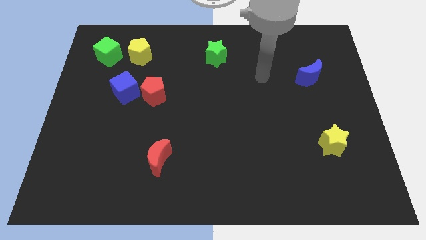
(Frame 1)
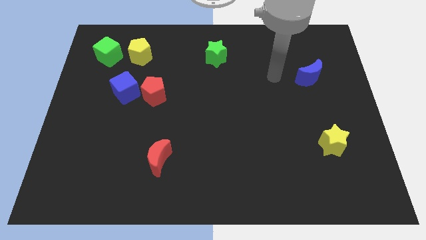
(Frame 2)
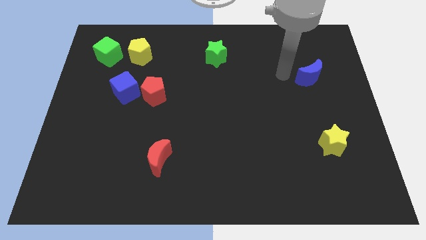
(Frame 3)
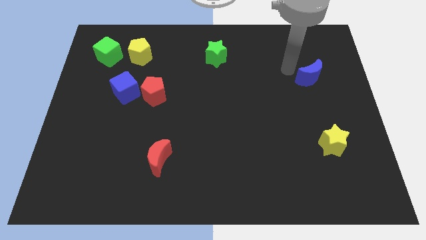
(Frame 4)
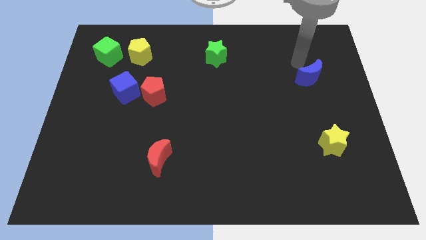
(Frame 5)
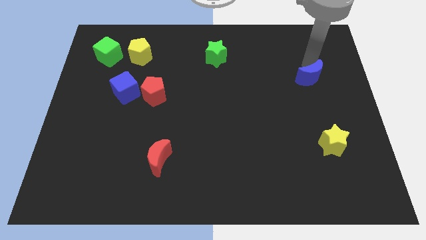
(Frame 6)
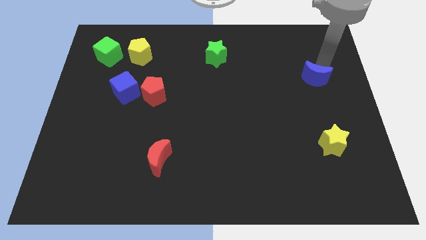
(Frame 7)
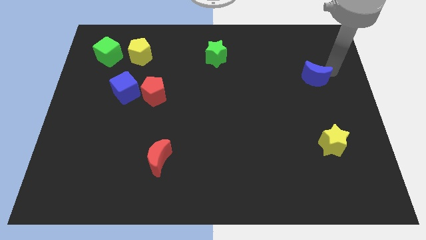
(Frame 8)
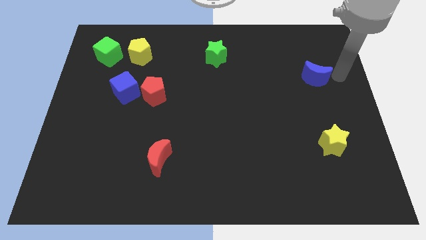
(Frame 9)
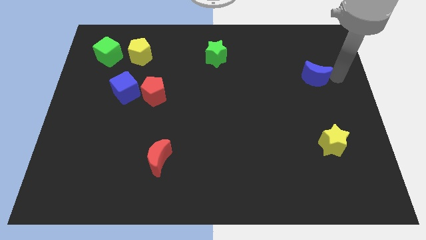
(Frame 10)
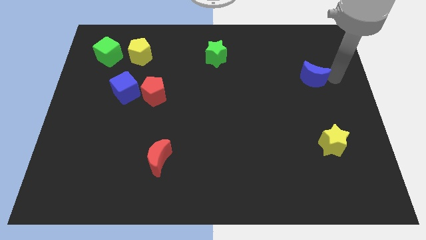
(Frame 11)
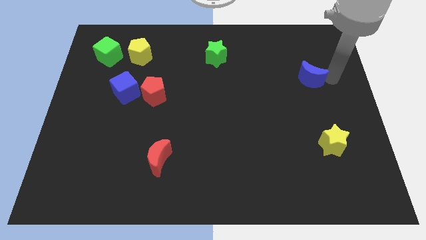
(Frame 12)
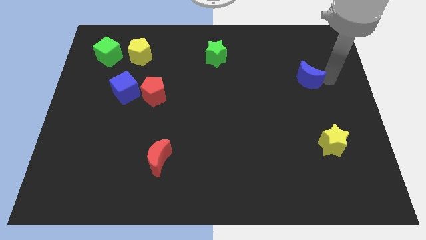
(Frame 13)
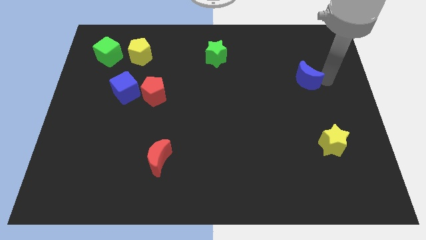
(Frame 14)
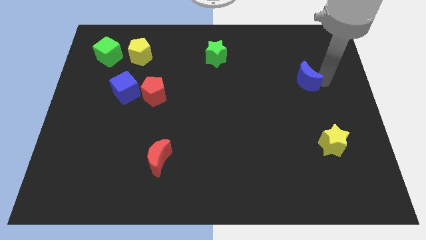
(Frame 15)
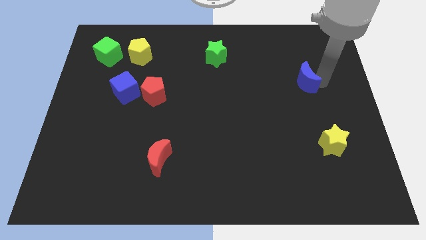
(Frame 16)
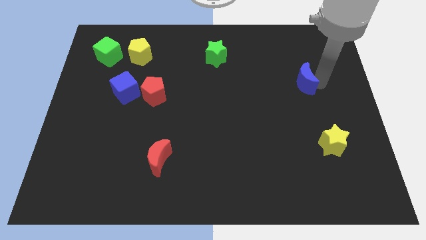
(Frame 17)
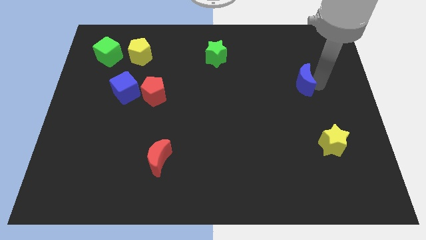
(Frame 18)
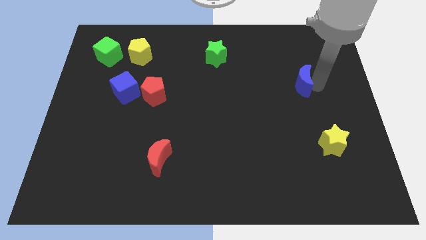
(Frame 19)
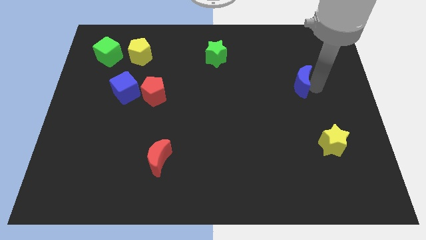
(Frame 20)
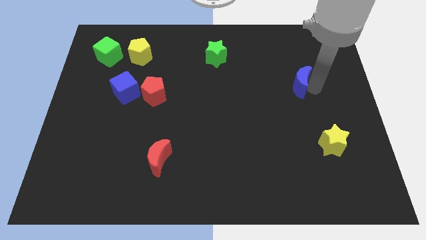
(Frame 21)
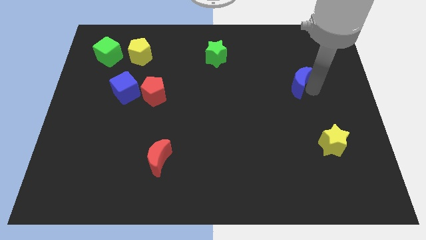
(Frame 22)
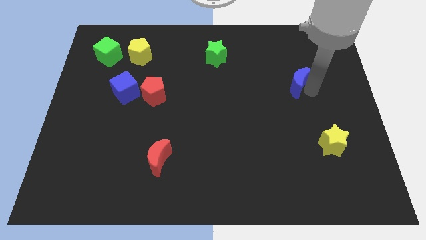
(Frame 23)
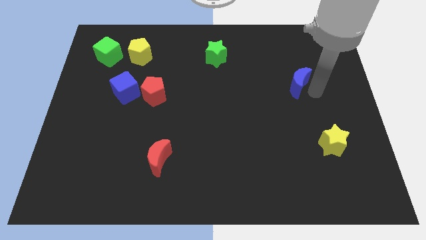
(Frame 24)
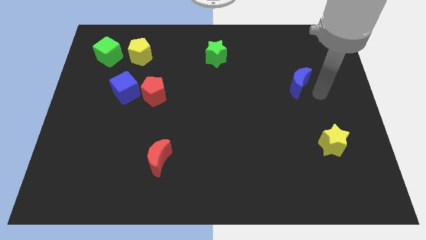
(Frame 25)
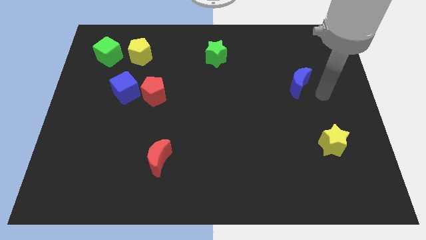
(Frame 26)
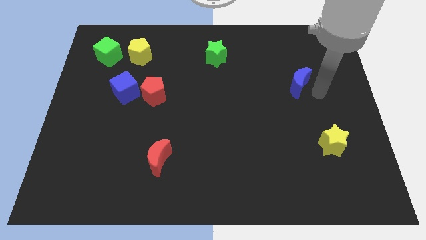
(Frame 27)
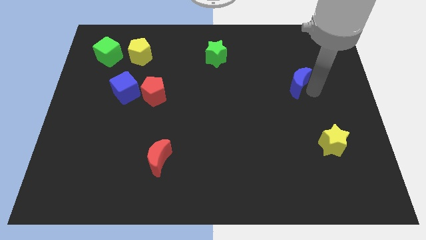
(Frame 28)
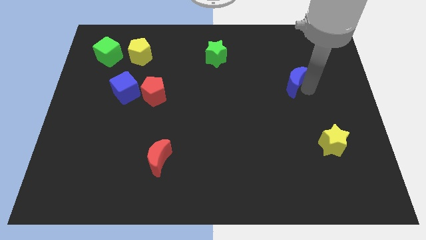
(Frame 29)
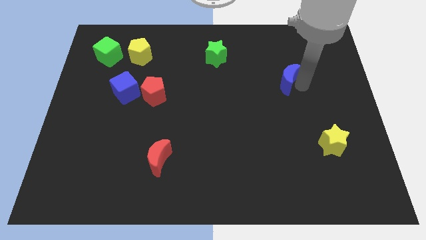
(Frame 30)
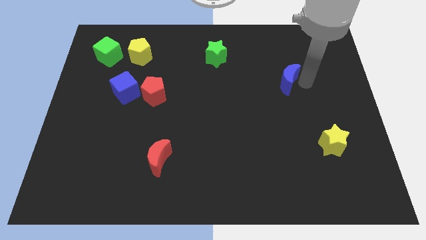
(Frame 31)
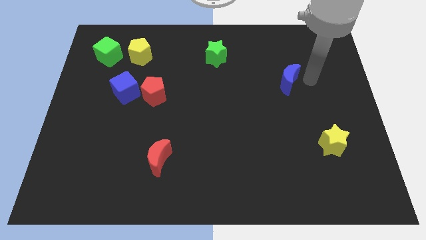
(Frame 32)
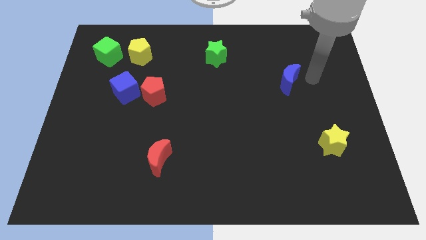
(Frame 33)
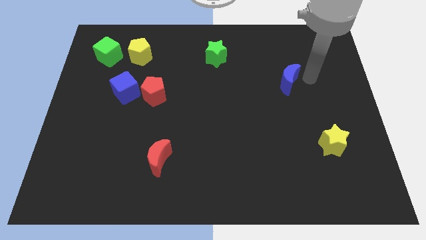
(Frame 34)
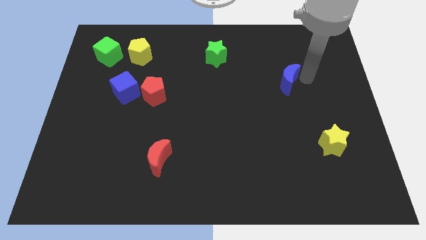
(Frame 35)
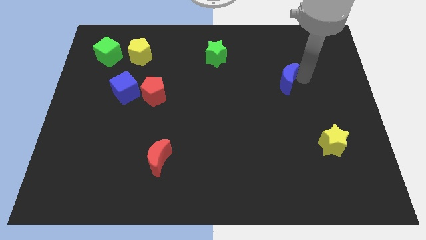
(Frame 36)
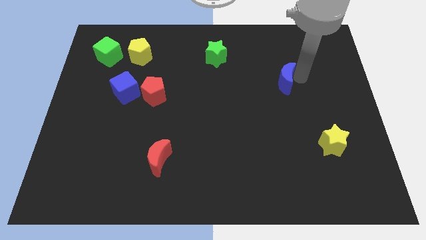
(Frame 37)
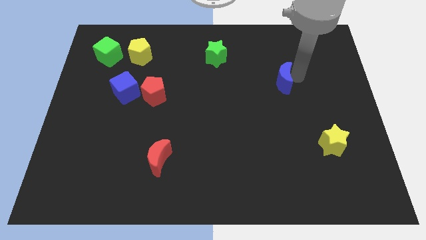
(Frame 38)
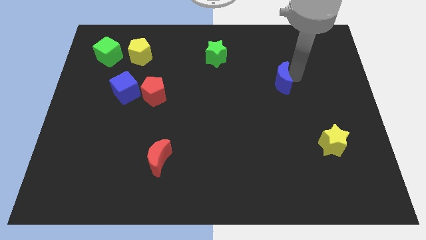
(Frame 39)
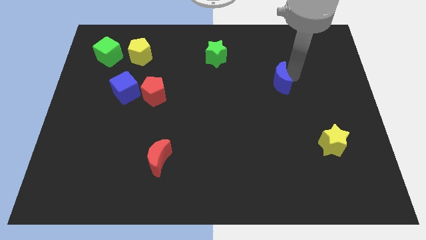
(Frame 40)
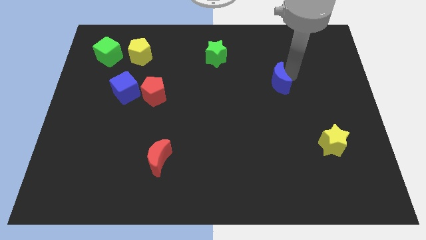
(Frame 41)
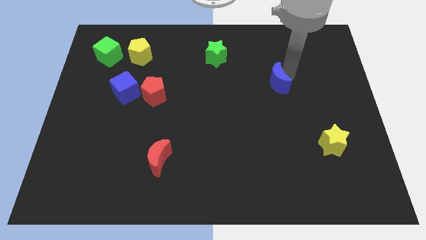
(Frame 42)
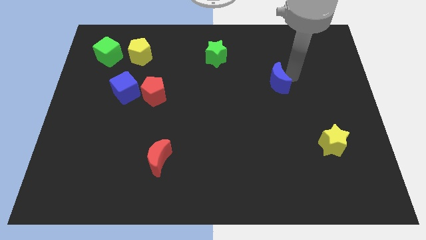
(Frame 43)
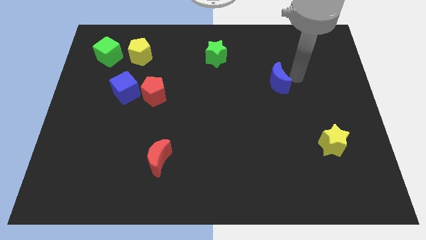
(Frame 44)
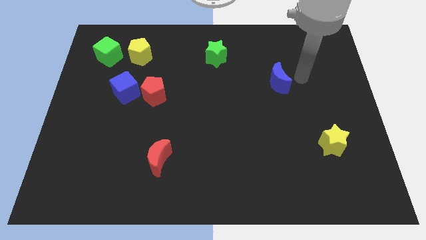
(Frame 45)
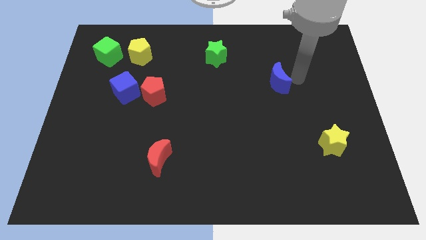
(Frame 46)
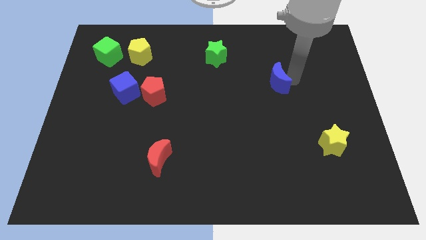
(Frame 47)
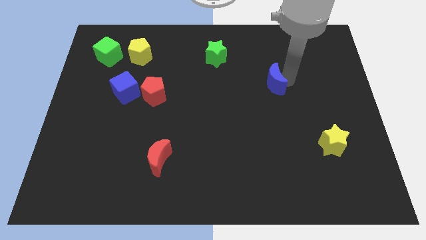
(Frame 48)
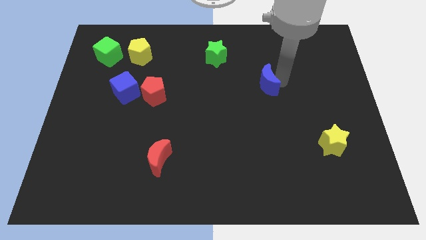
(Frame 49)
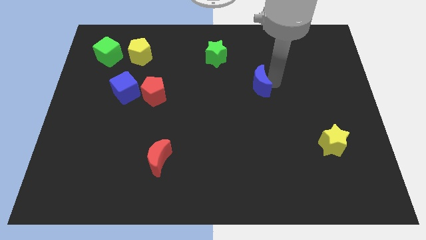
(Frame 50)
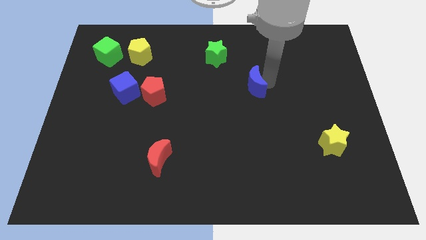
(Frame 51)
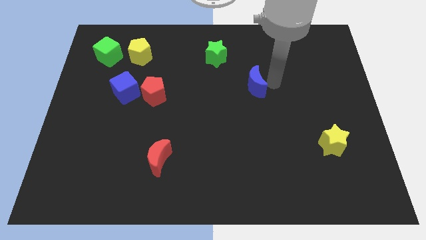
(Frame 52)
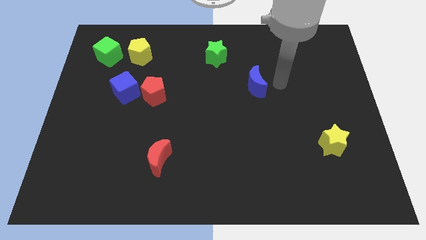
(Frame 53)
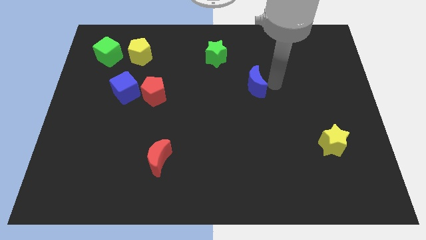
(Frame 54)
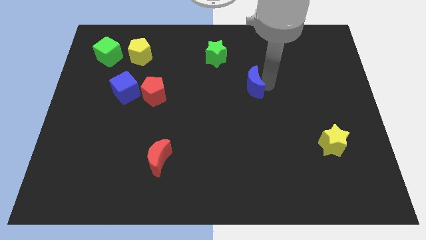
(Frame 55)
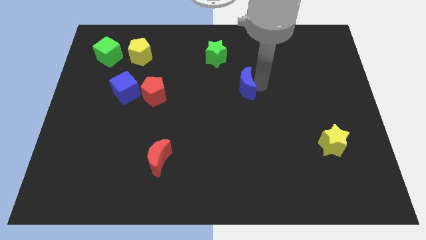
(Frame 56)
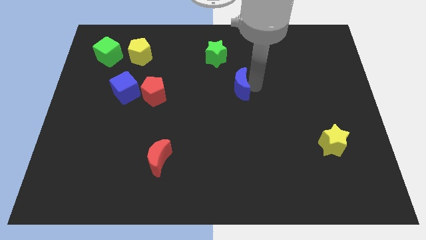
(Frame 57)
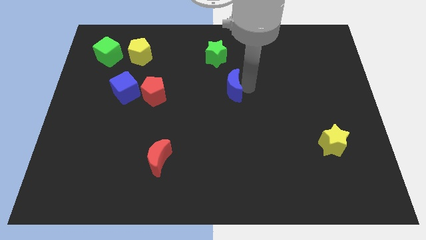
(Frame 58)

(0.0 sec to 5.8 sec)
slide the blue moon to the bottom of the green star

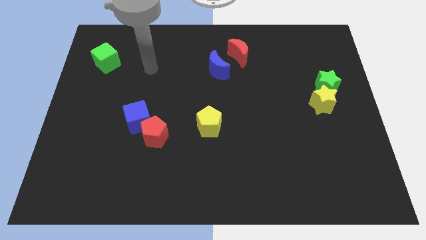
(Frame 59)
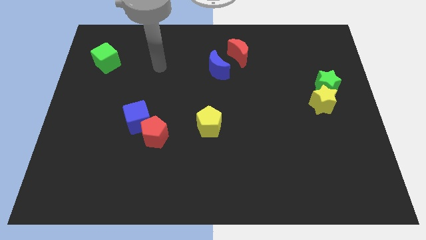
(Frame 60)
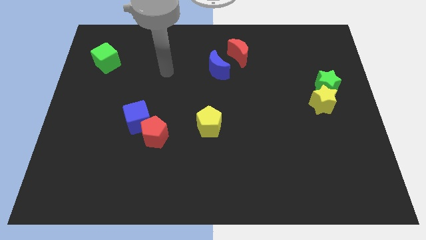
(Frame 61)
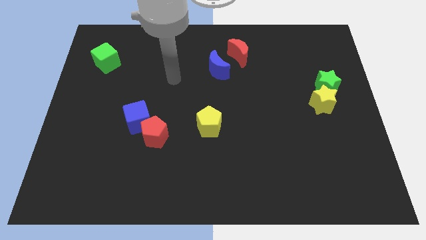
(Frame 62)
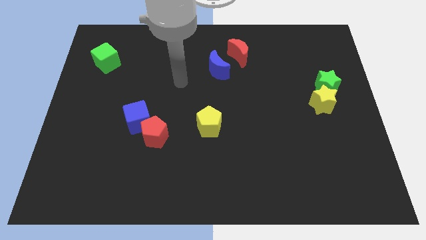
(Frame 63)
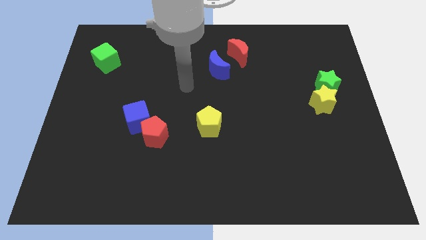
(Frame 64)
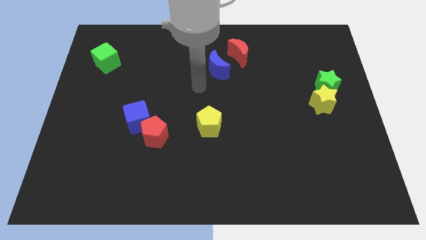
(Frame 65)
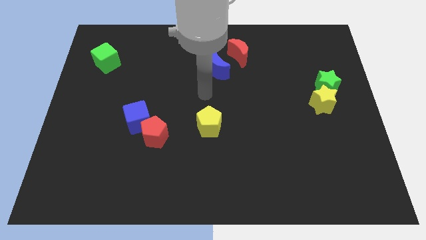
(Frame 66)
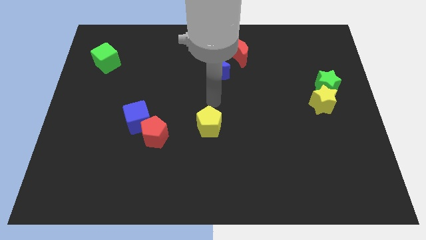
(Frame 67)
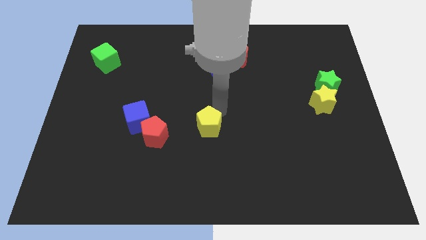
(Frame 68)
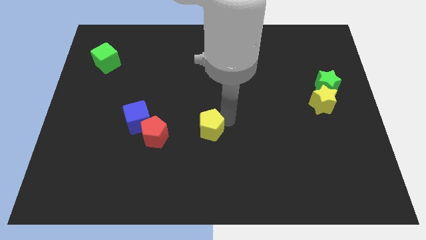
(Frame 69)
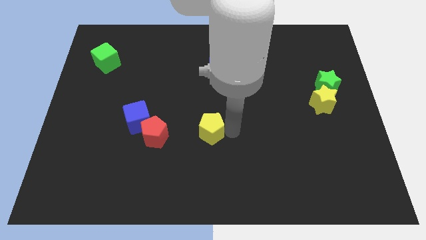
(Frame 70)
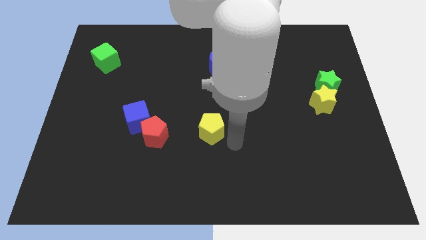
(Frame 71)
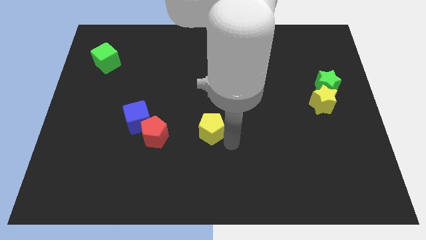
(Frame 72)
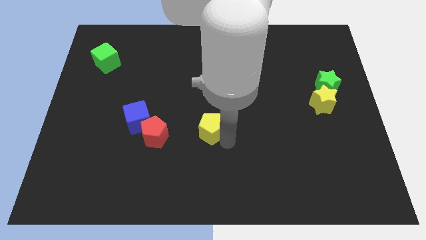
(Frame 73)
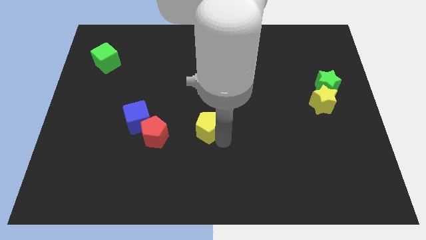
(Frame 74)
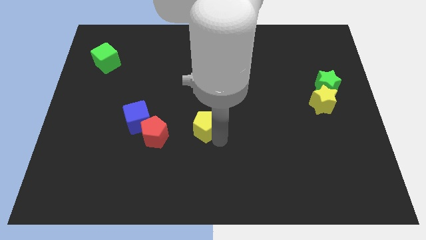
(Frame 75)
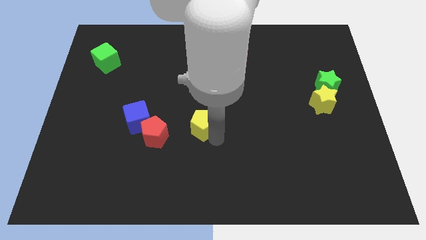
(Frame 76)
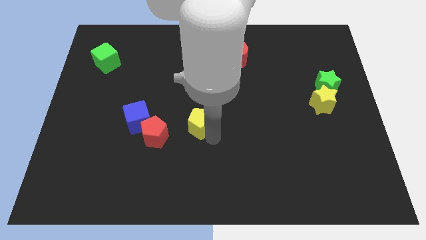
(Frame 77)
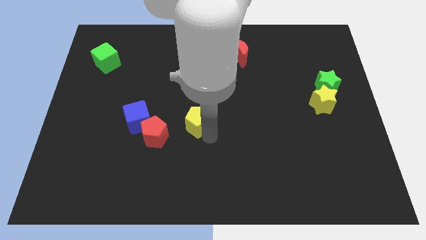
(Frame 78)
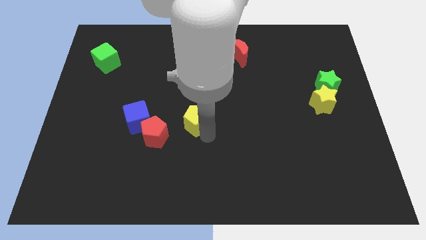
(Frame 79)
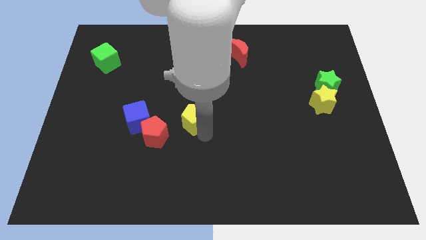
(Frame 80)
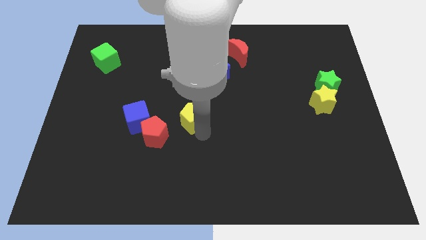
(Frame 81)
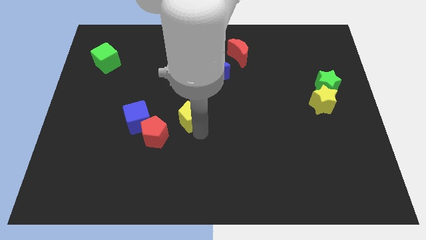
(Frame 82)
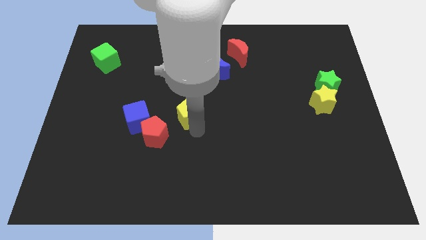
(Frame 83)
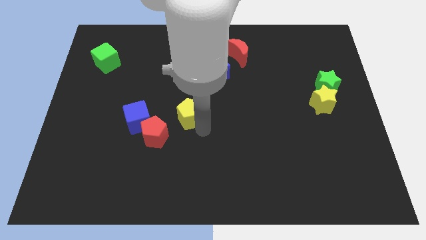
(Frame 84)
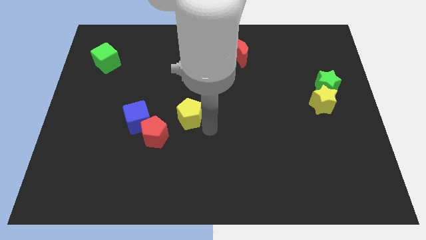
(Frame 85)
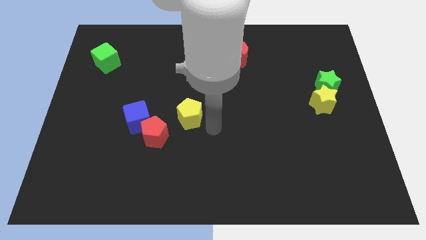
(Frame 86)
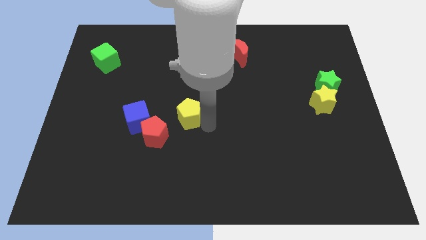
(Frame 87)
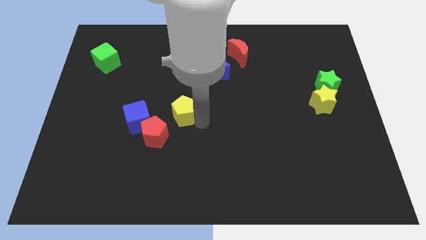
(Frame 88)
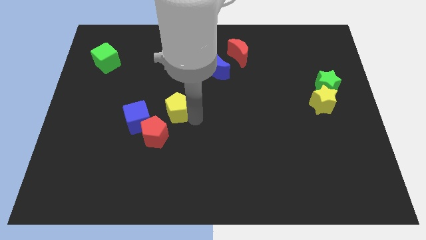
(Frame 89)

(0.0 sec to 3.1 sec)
slide the yellow pentagon diagonally up and to the right of the blue cube
